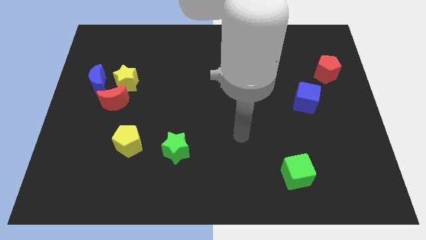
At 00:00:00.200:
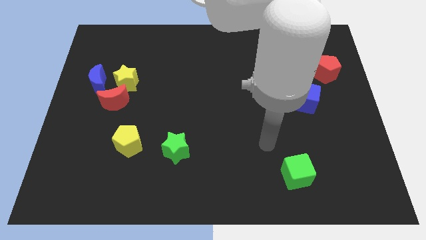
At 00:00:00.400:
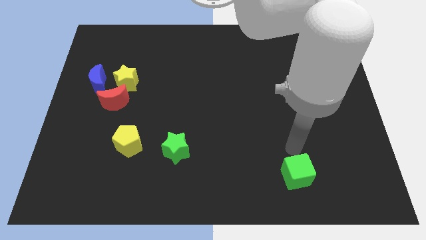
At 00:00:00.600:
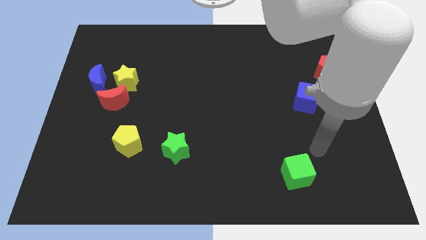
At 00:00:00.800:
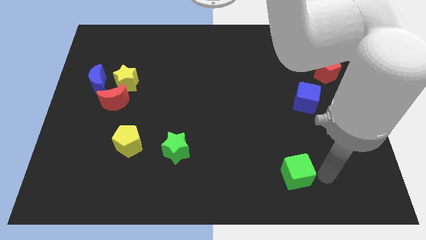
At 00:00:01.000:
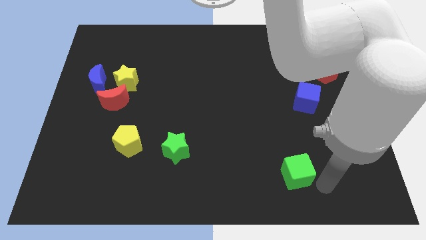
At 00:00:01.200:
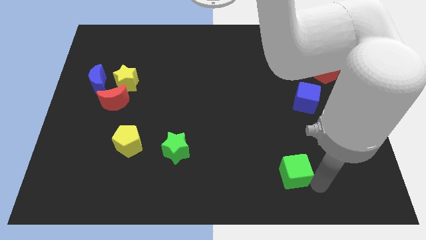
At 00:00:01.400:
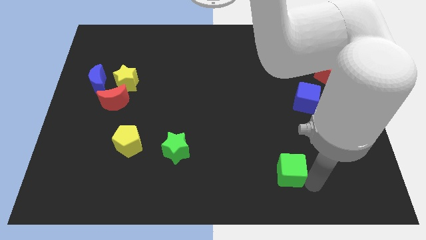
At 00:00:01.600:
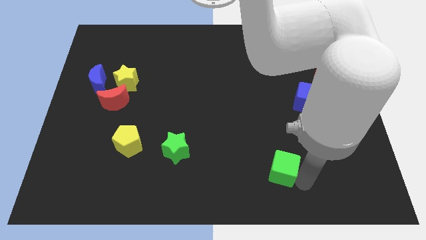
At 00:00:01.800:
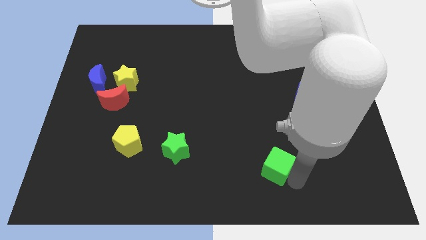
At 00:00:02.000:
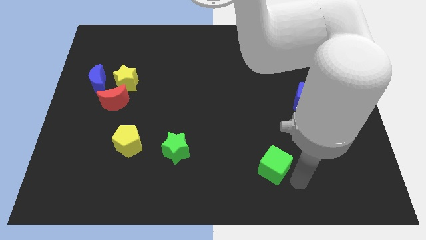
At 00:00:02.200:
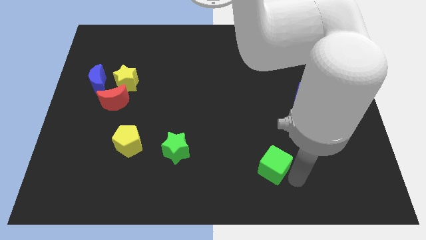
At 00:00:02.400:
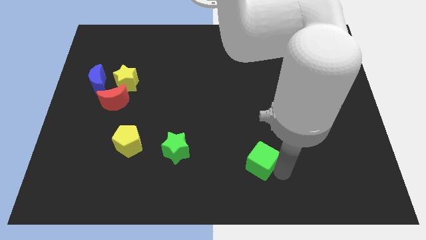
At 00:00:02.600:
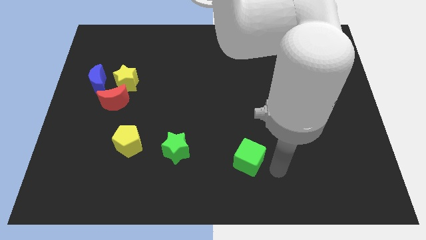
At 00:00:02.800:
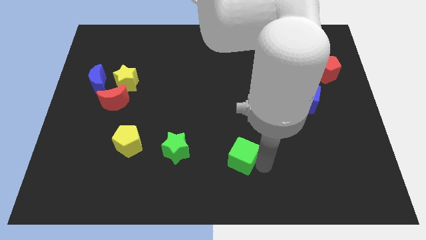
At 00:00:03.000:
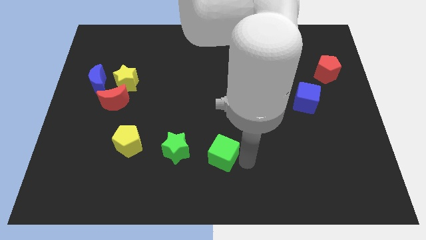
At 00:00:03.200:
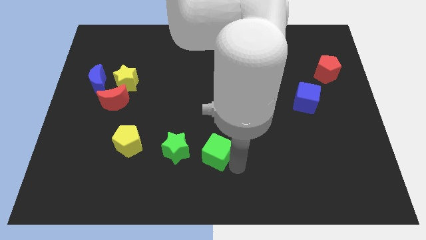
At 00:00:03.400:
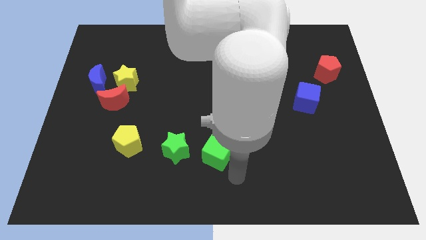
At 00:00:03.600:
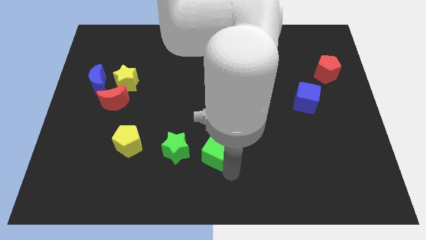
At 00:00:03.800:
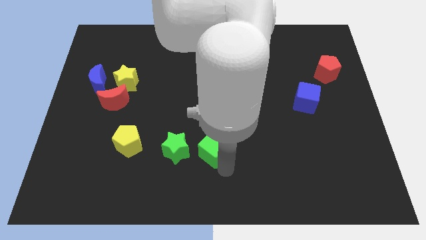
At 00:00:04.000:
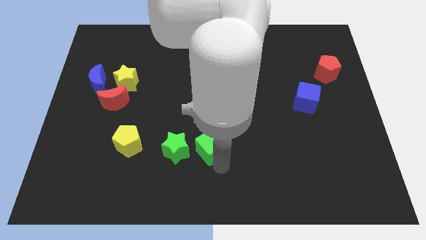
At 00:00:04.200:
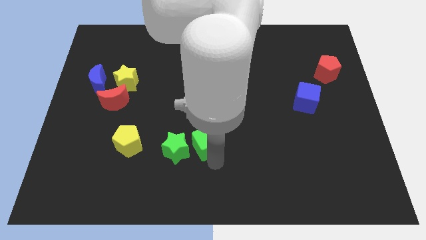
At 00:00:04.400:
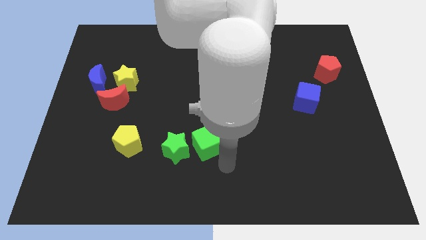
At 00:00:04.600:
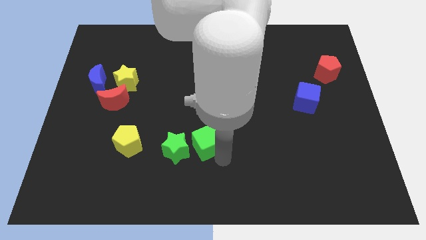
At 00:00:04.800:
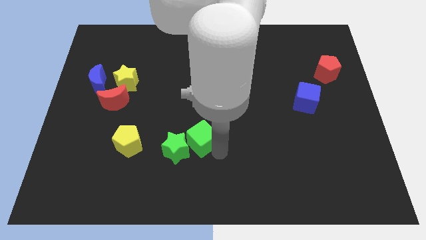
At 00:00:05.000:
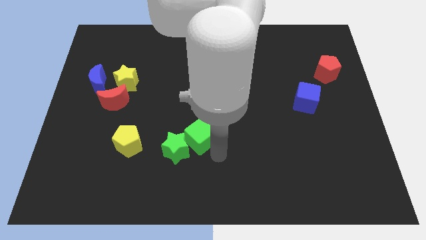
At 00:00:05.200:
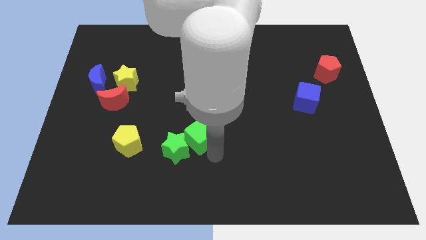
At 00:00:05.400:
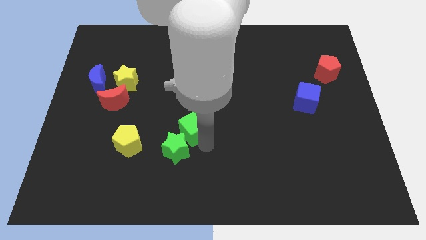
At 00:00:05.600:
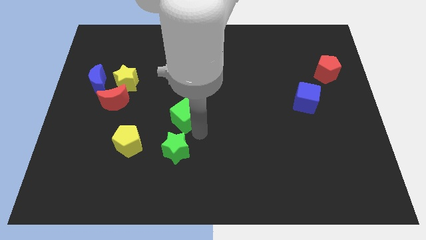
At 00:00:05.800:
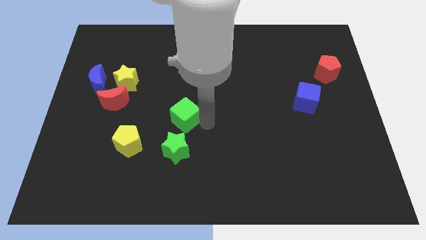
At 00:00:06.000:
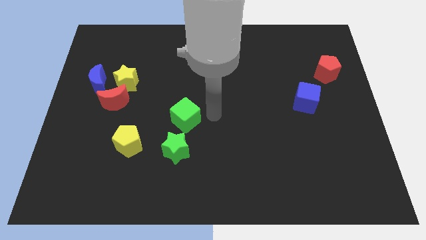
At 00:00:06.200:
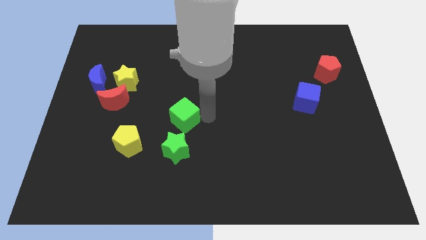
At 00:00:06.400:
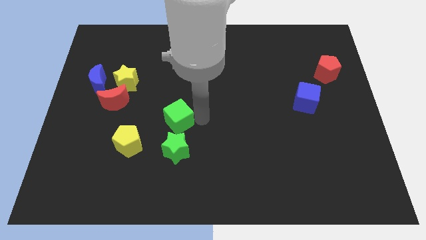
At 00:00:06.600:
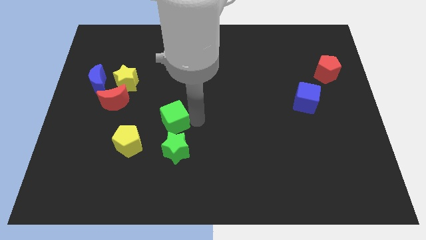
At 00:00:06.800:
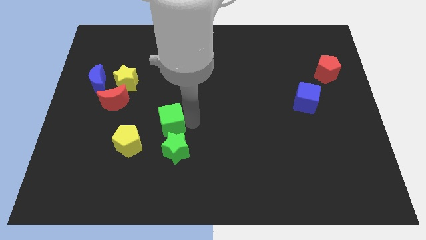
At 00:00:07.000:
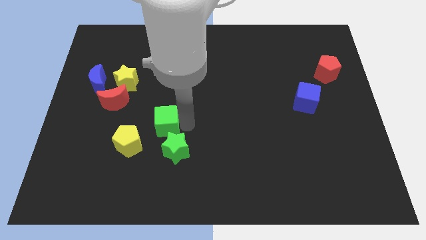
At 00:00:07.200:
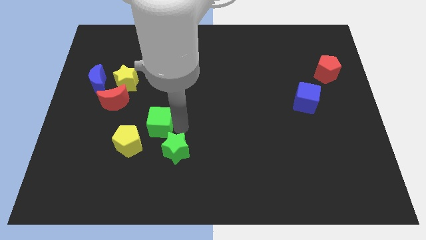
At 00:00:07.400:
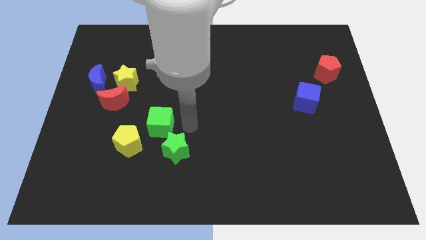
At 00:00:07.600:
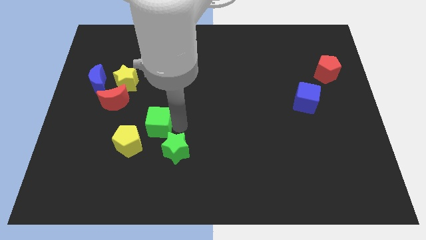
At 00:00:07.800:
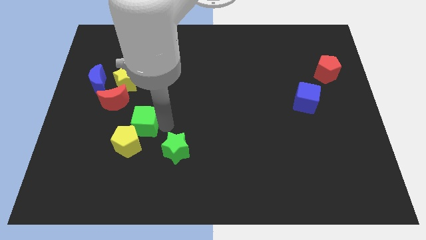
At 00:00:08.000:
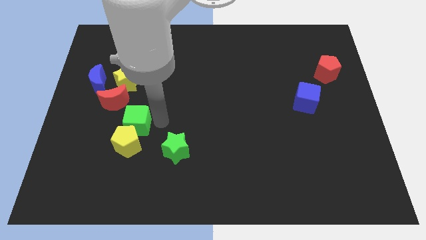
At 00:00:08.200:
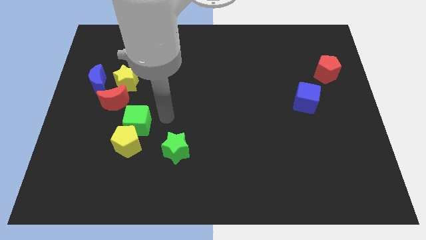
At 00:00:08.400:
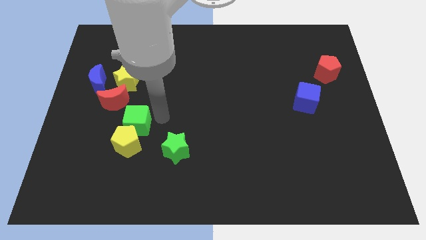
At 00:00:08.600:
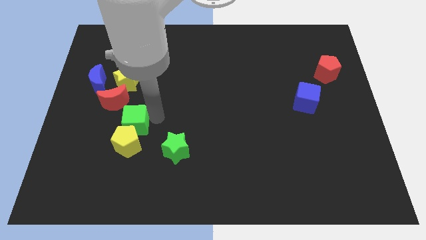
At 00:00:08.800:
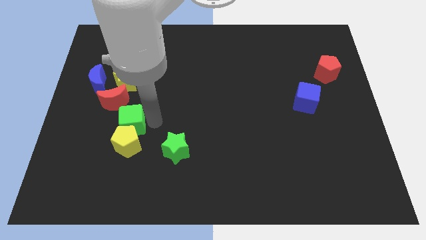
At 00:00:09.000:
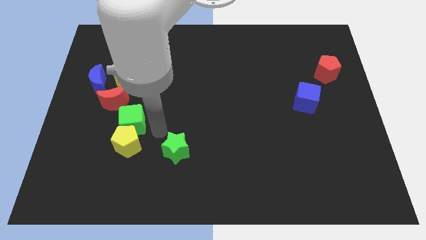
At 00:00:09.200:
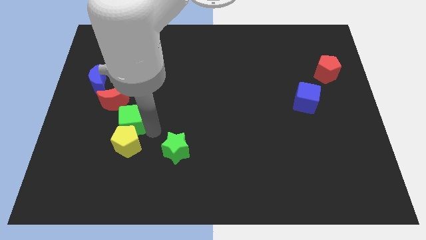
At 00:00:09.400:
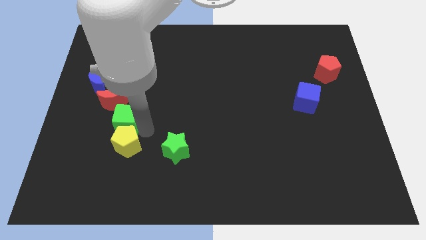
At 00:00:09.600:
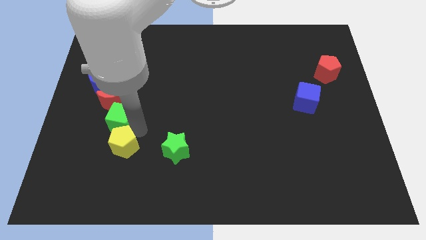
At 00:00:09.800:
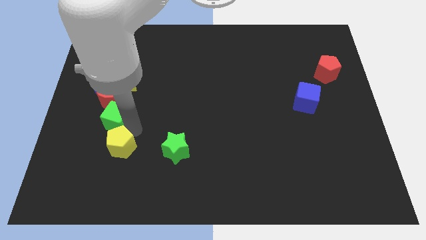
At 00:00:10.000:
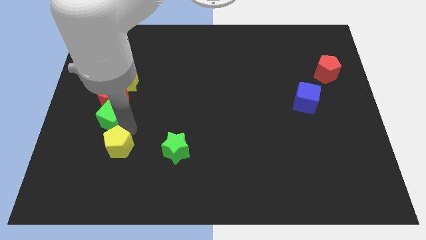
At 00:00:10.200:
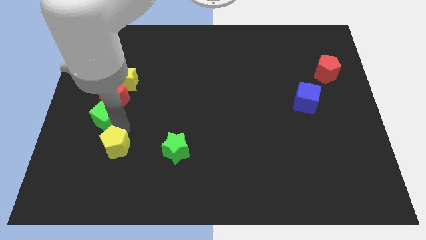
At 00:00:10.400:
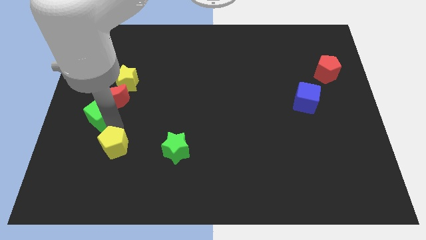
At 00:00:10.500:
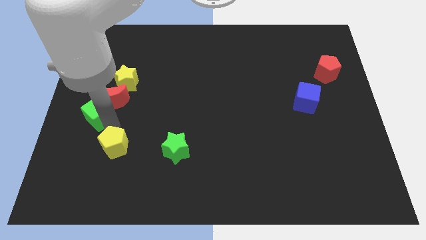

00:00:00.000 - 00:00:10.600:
put the green cube to the bottom left side of the yellow star

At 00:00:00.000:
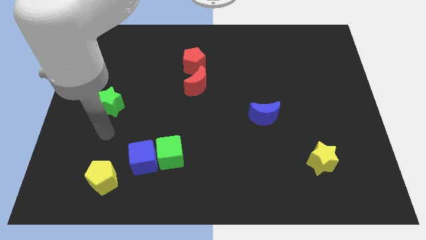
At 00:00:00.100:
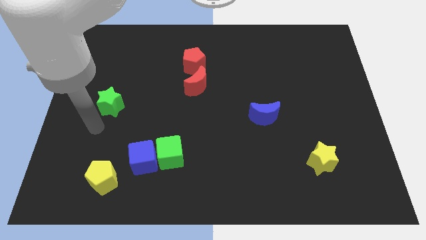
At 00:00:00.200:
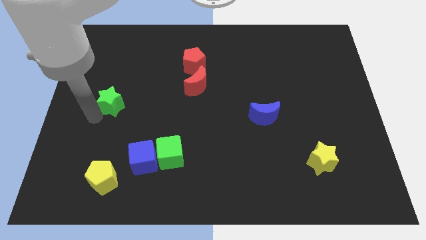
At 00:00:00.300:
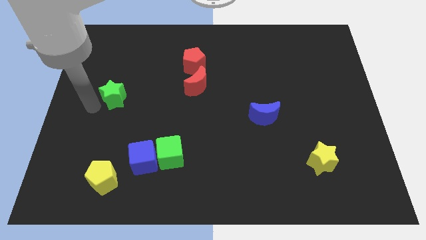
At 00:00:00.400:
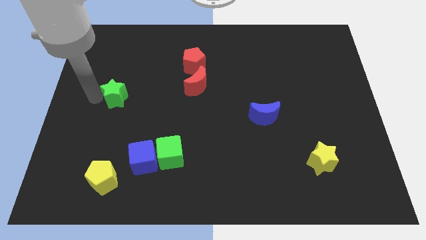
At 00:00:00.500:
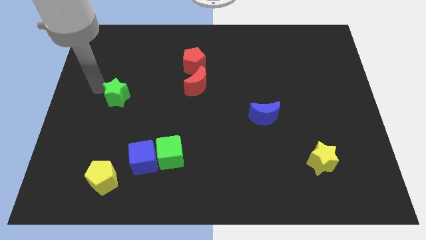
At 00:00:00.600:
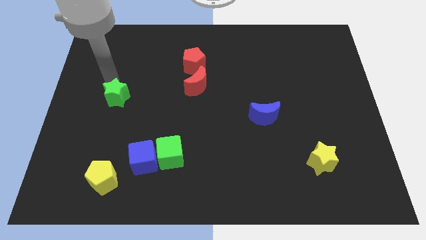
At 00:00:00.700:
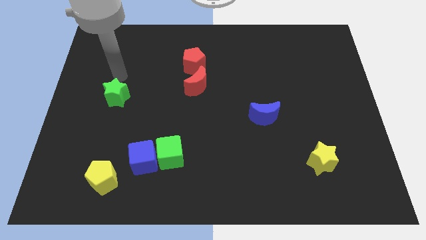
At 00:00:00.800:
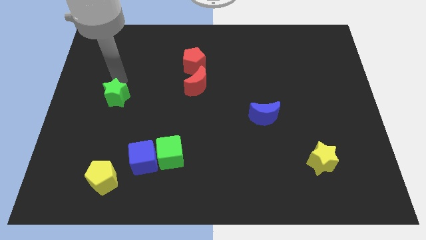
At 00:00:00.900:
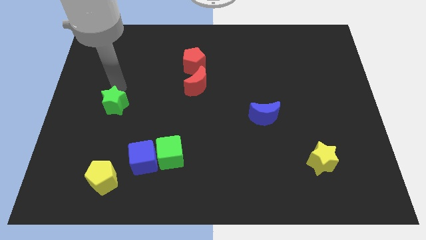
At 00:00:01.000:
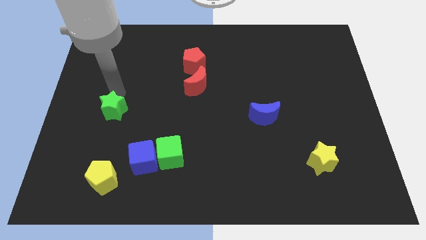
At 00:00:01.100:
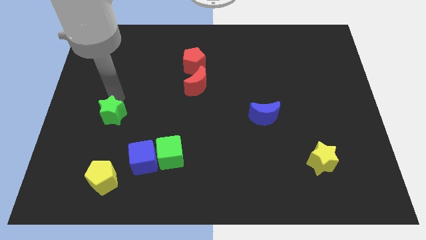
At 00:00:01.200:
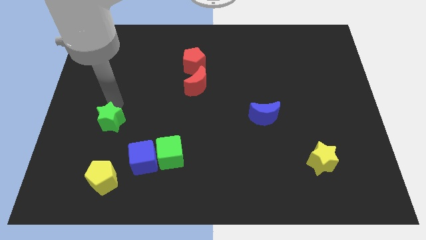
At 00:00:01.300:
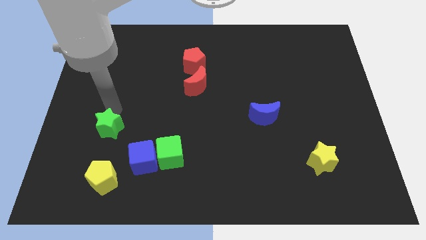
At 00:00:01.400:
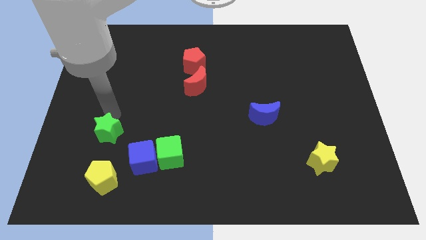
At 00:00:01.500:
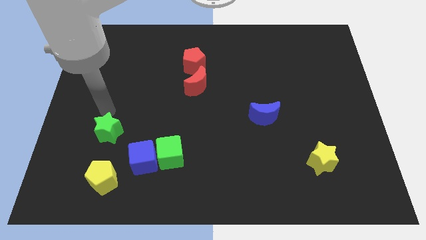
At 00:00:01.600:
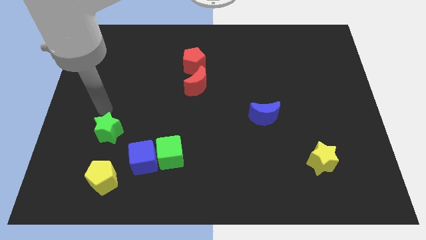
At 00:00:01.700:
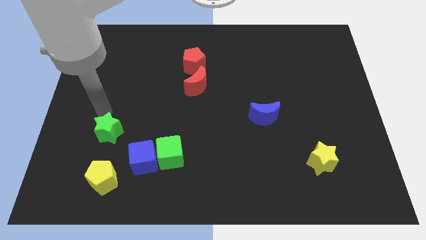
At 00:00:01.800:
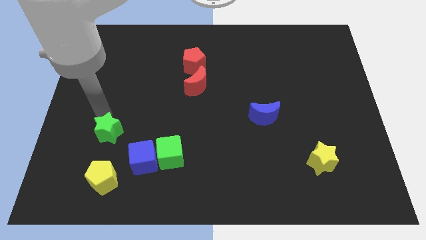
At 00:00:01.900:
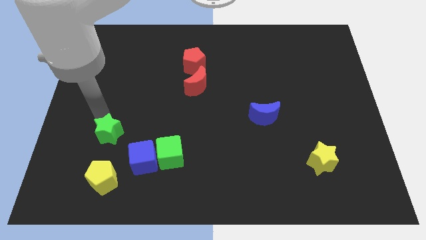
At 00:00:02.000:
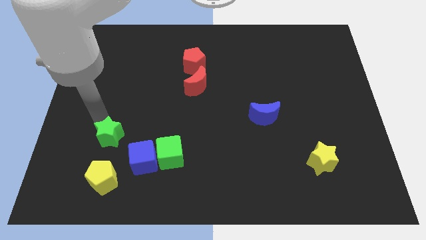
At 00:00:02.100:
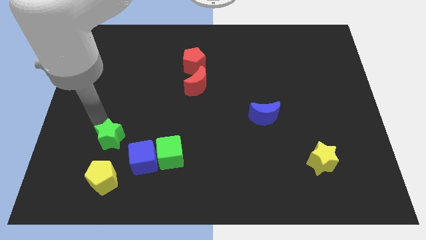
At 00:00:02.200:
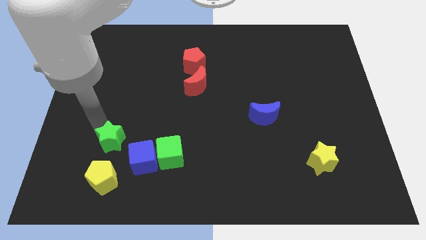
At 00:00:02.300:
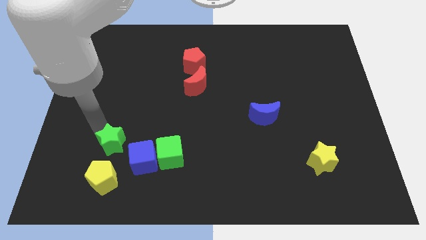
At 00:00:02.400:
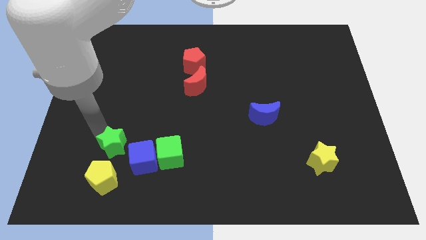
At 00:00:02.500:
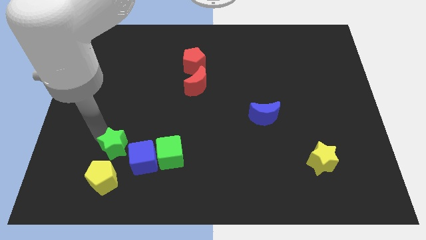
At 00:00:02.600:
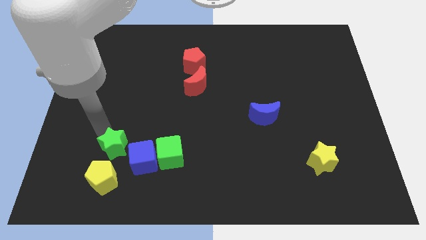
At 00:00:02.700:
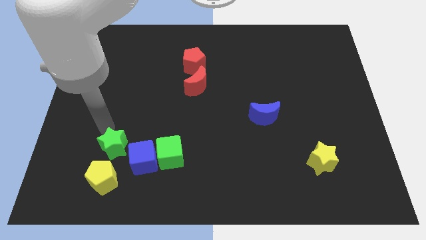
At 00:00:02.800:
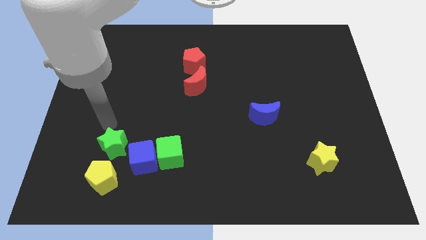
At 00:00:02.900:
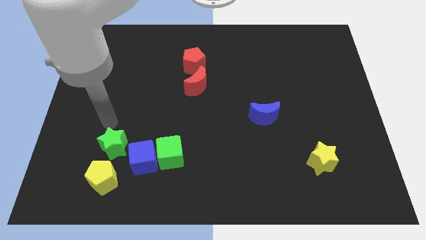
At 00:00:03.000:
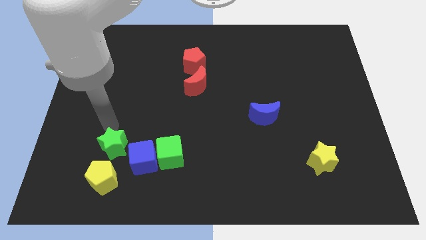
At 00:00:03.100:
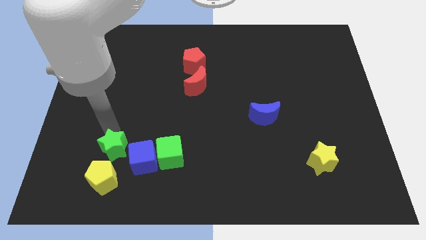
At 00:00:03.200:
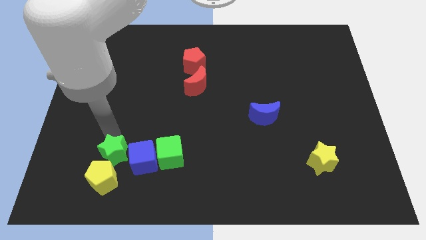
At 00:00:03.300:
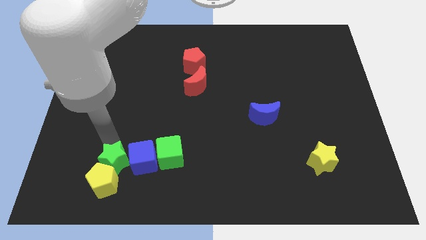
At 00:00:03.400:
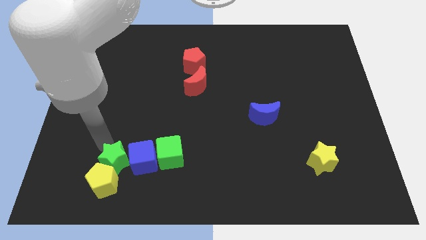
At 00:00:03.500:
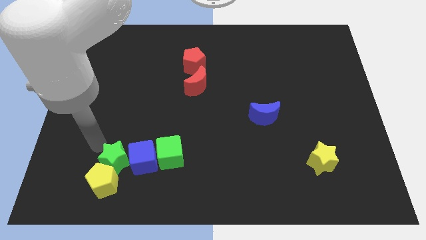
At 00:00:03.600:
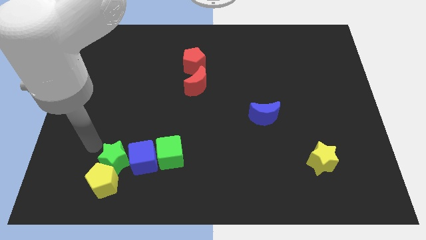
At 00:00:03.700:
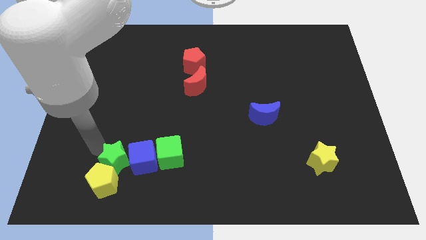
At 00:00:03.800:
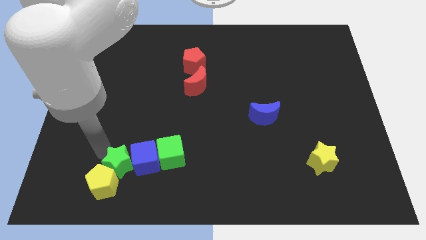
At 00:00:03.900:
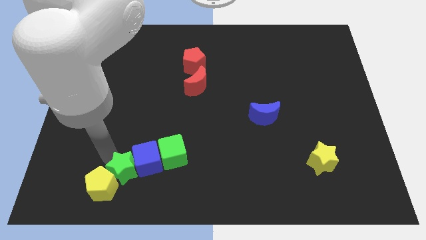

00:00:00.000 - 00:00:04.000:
push the green star to the bottom left side of the green cube
